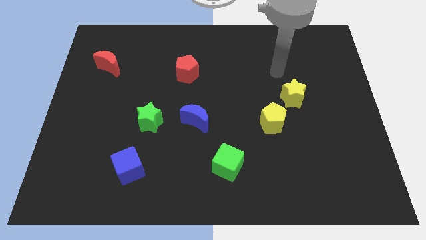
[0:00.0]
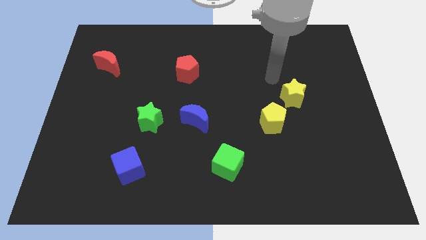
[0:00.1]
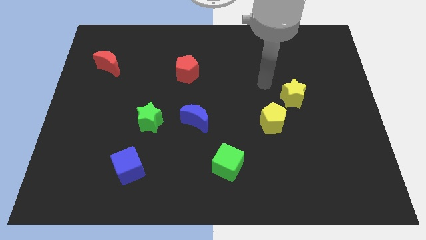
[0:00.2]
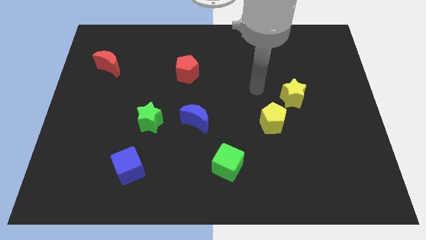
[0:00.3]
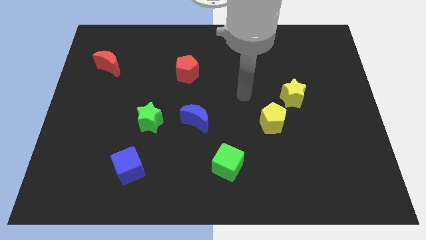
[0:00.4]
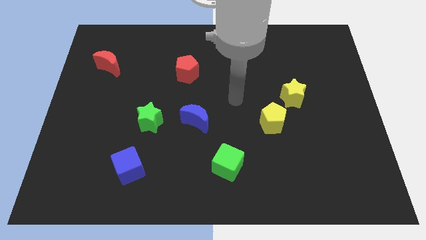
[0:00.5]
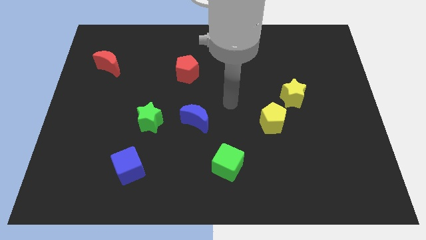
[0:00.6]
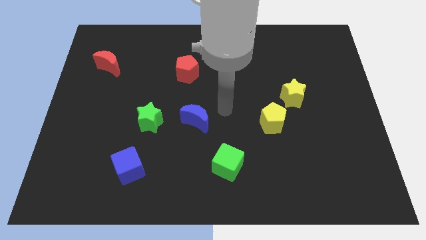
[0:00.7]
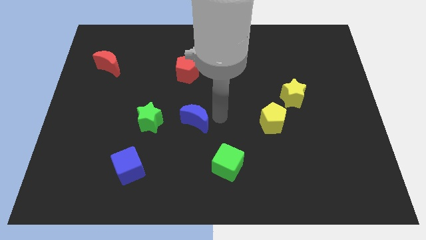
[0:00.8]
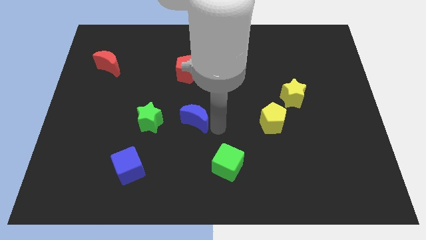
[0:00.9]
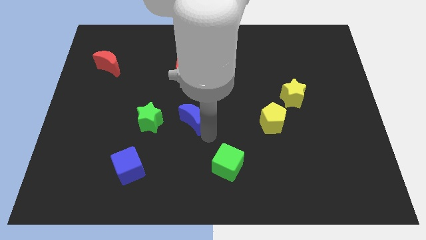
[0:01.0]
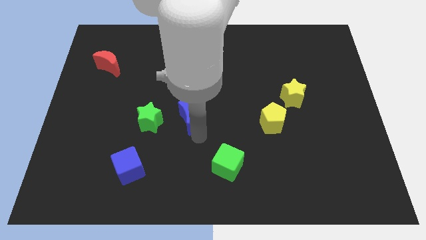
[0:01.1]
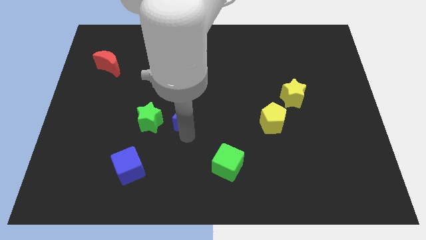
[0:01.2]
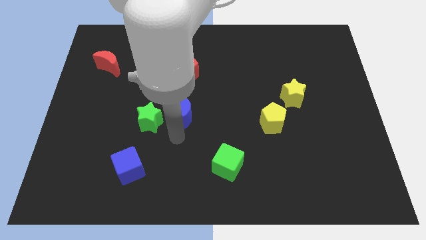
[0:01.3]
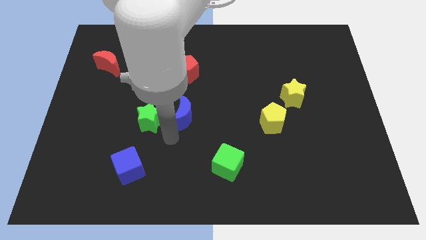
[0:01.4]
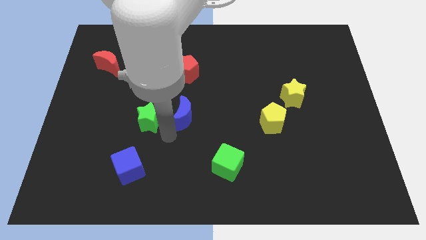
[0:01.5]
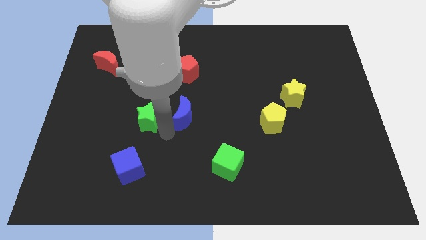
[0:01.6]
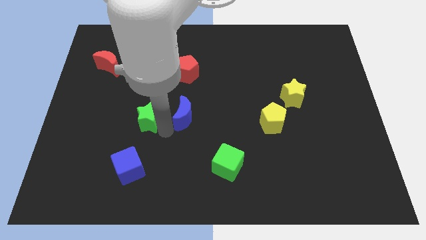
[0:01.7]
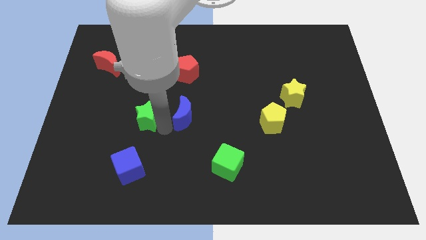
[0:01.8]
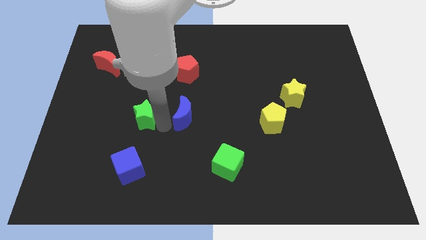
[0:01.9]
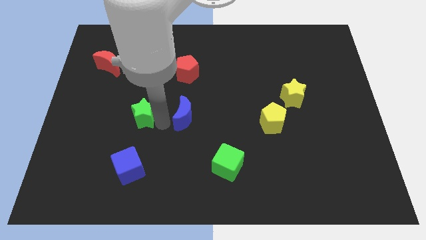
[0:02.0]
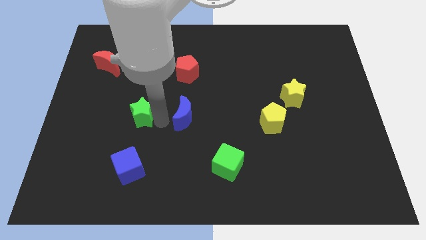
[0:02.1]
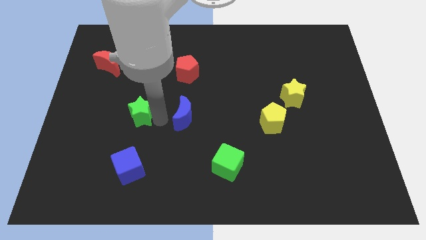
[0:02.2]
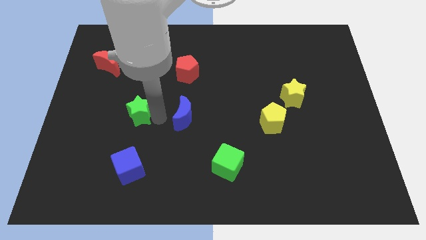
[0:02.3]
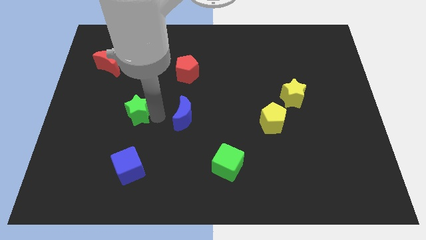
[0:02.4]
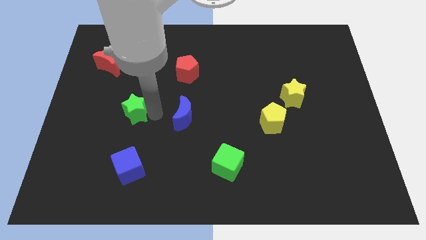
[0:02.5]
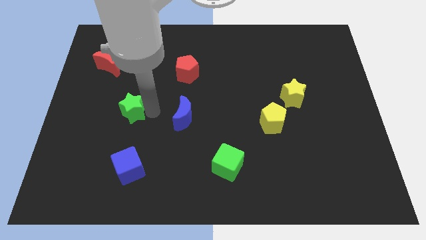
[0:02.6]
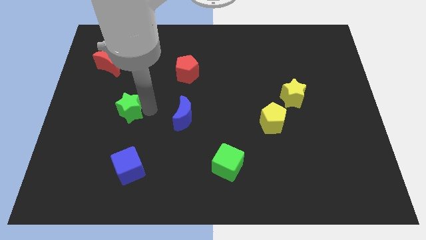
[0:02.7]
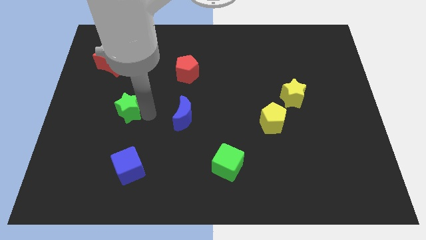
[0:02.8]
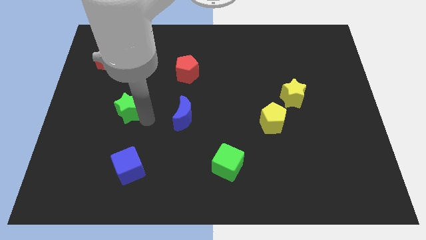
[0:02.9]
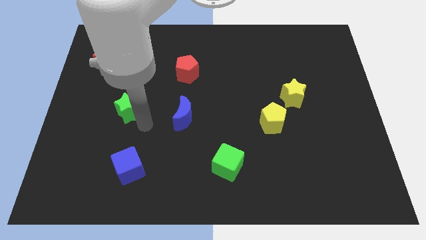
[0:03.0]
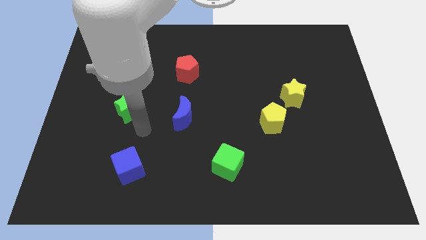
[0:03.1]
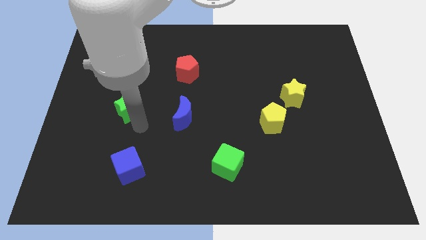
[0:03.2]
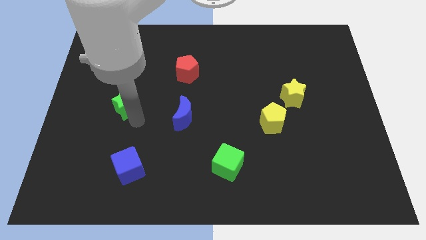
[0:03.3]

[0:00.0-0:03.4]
push the green star diagonally up and left a little

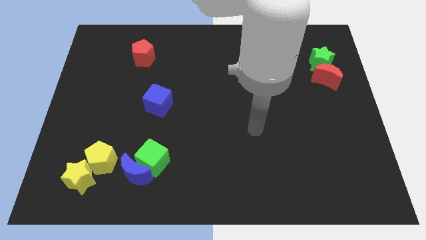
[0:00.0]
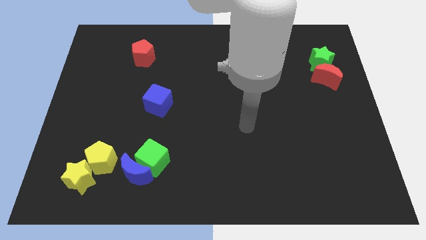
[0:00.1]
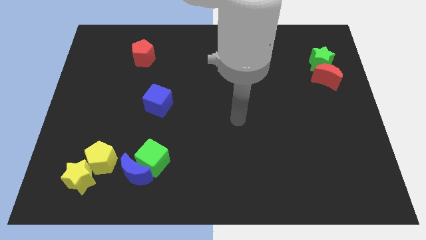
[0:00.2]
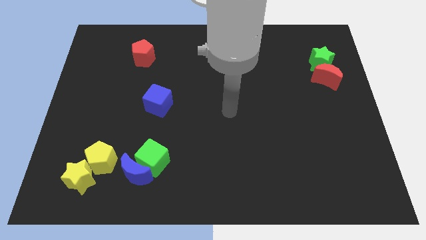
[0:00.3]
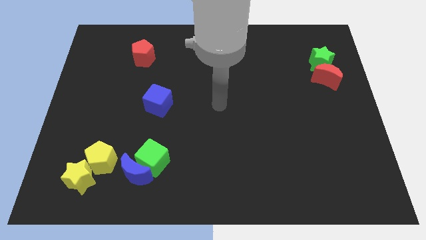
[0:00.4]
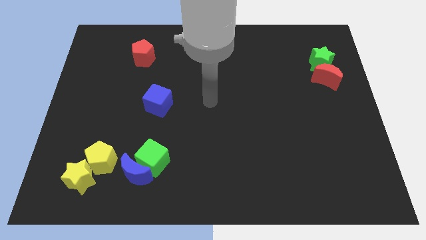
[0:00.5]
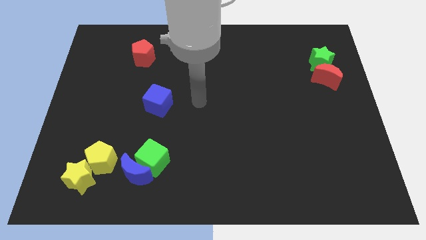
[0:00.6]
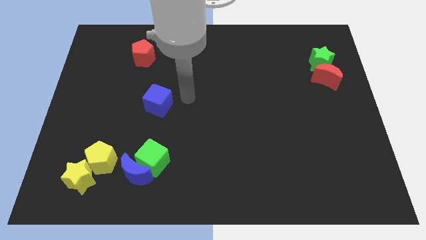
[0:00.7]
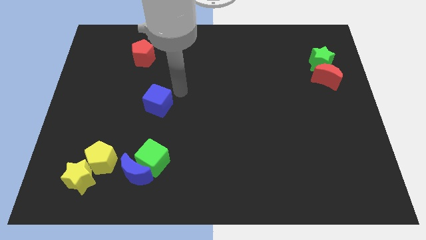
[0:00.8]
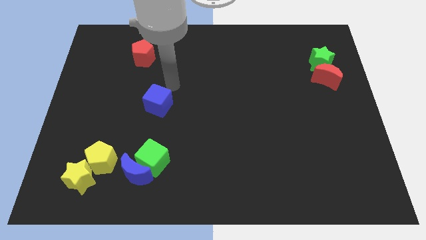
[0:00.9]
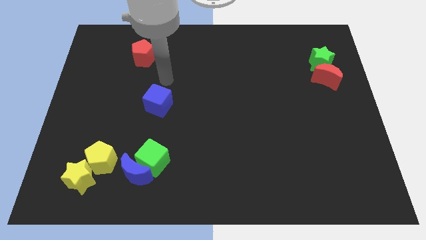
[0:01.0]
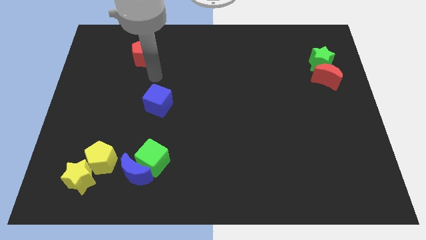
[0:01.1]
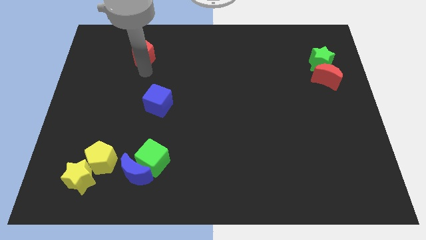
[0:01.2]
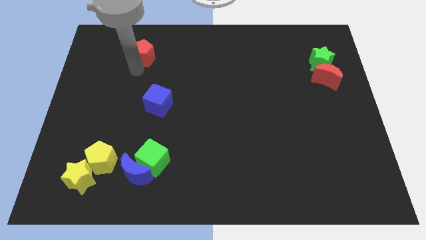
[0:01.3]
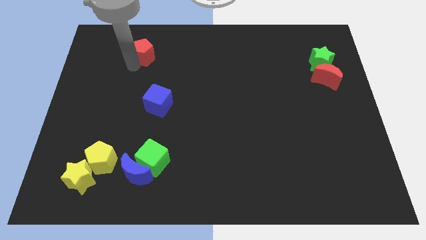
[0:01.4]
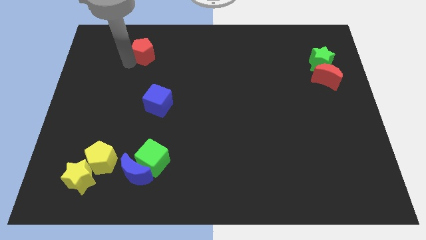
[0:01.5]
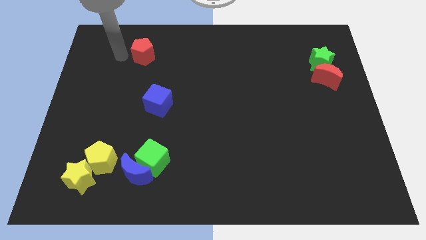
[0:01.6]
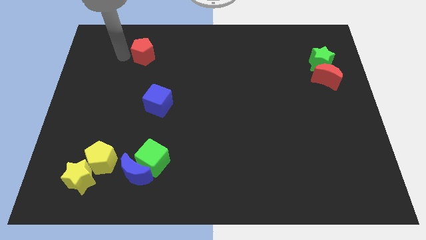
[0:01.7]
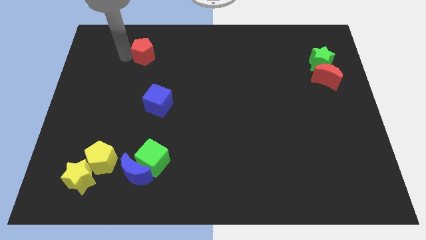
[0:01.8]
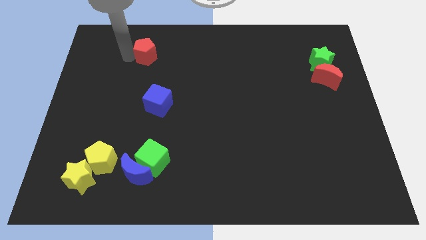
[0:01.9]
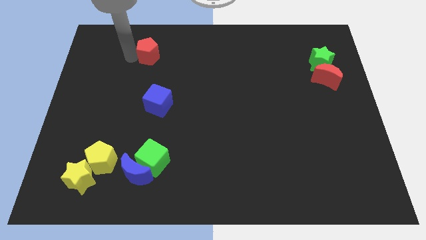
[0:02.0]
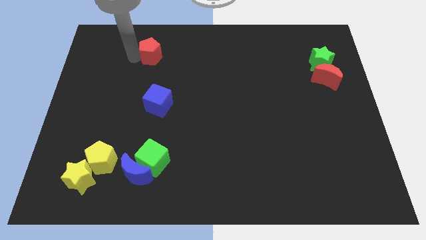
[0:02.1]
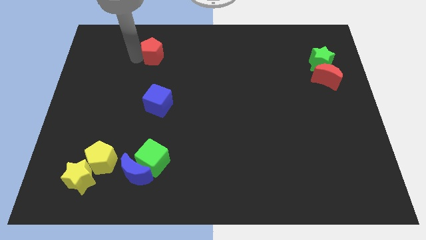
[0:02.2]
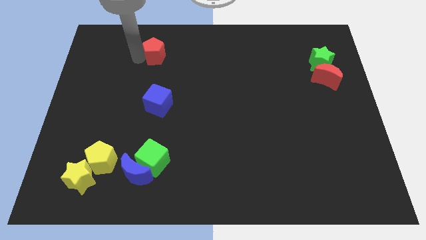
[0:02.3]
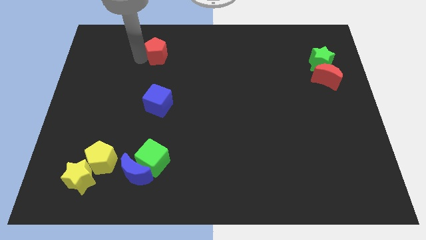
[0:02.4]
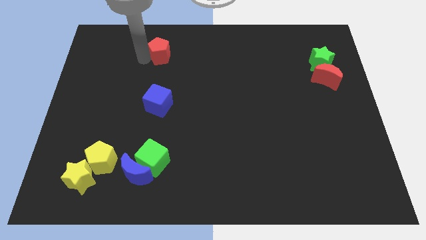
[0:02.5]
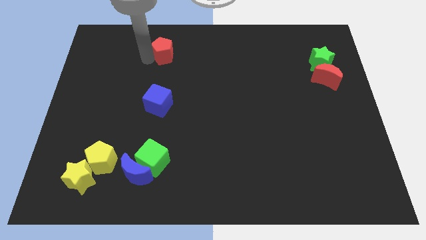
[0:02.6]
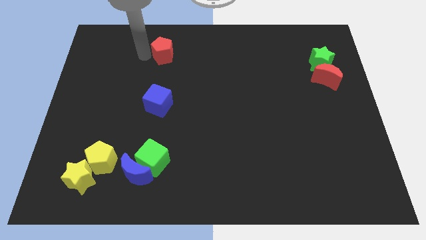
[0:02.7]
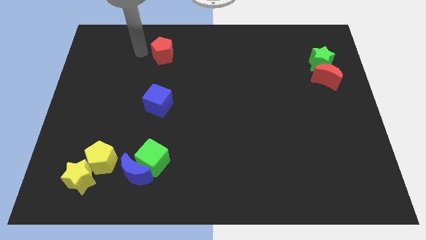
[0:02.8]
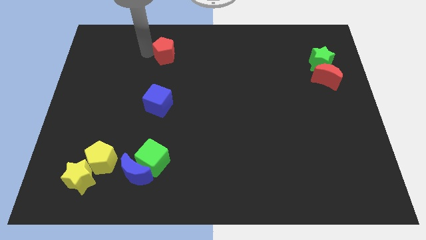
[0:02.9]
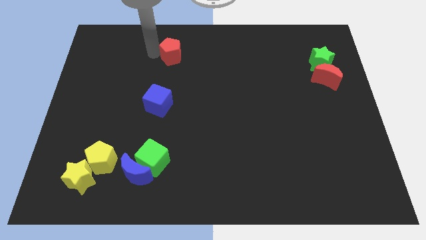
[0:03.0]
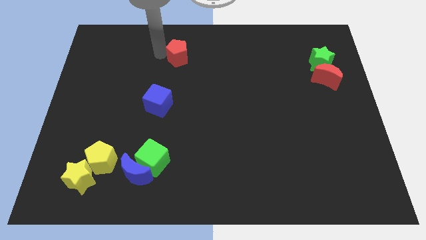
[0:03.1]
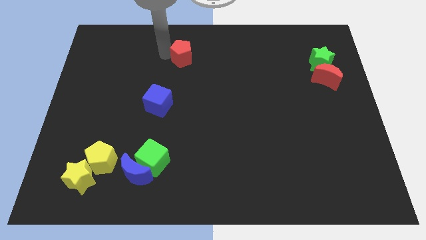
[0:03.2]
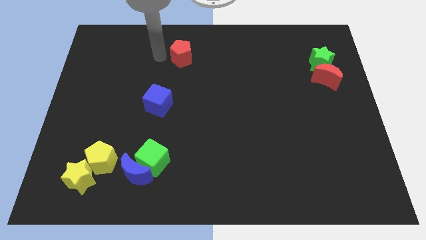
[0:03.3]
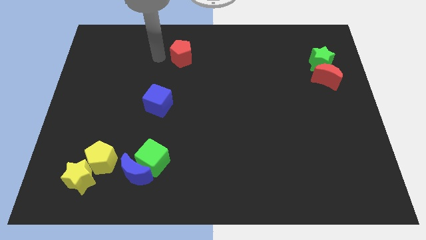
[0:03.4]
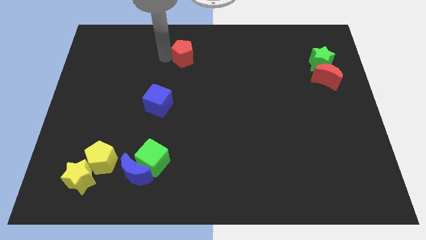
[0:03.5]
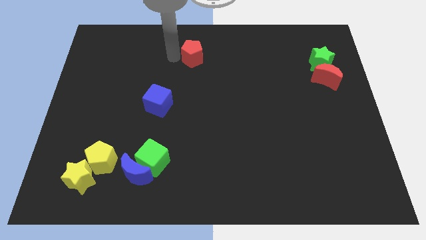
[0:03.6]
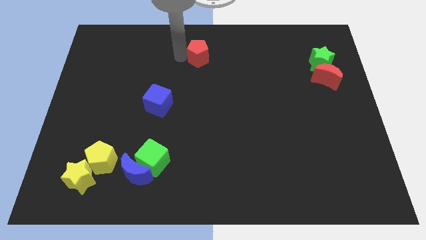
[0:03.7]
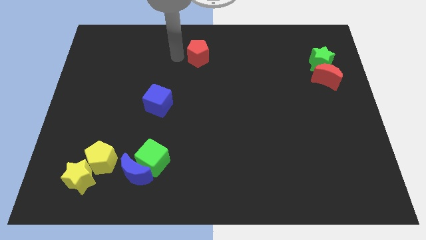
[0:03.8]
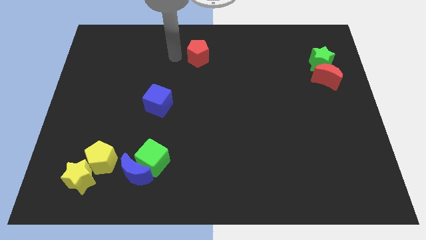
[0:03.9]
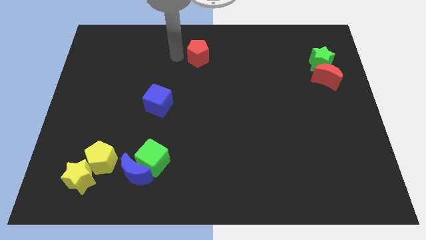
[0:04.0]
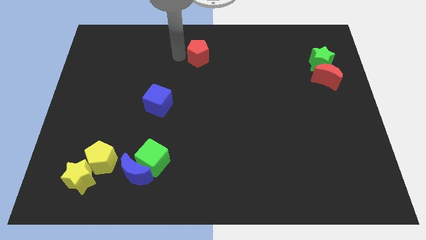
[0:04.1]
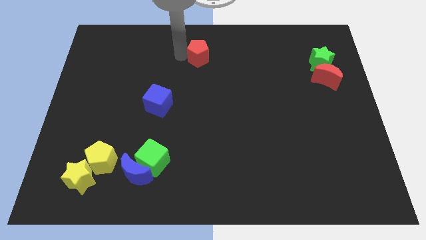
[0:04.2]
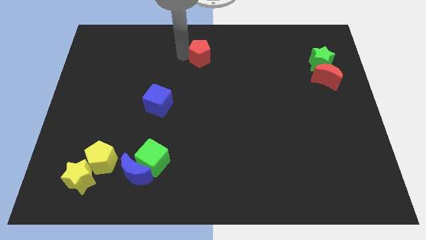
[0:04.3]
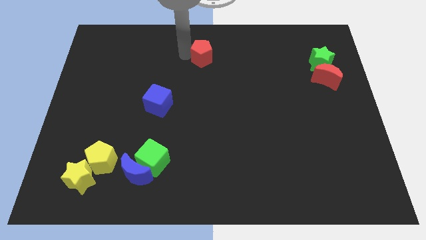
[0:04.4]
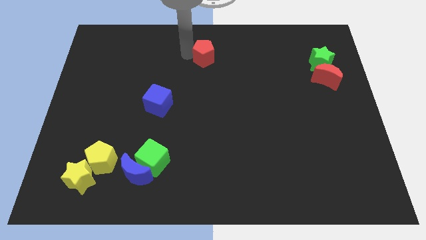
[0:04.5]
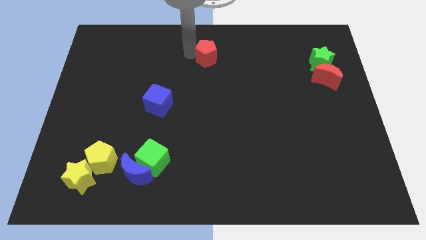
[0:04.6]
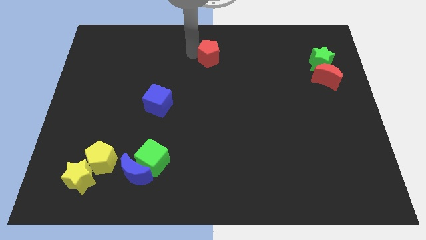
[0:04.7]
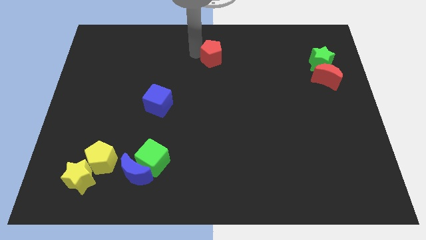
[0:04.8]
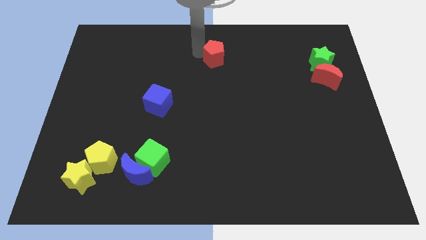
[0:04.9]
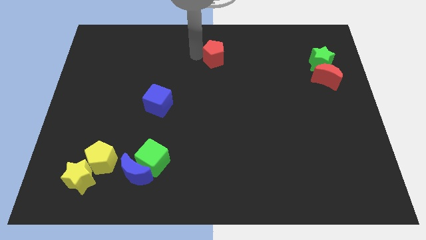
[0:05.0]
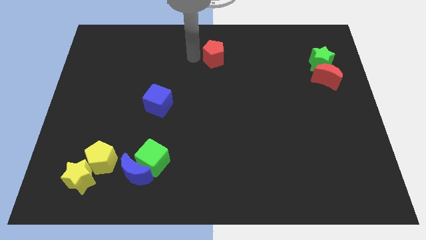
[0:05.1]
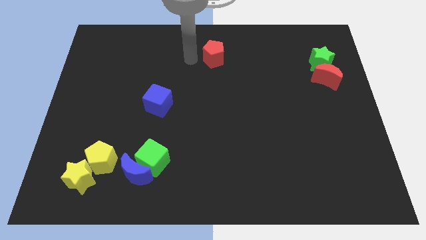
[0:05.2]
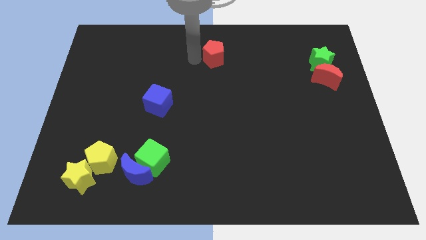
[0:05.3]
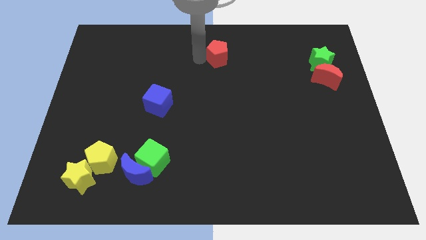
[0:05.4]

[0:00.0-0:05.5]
push the red pentagon right
